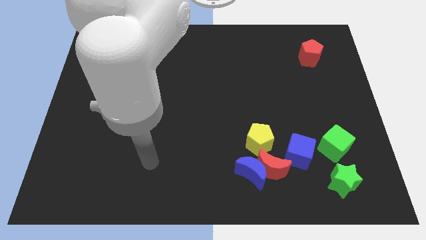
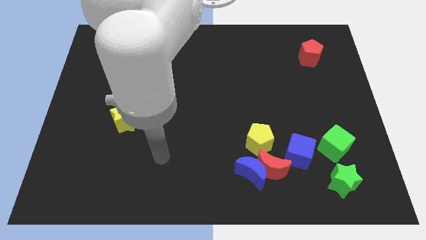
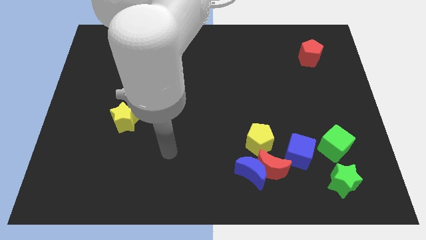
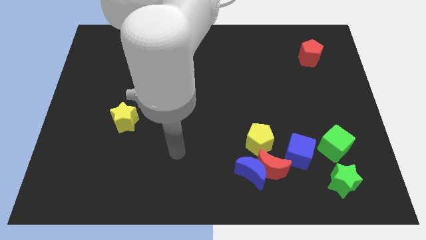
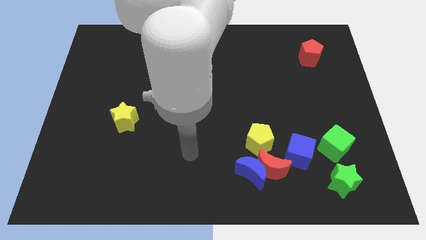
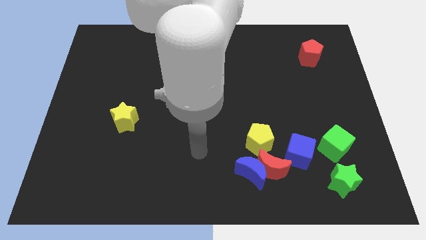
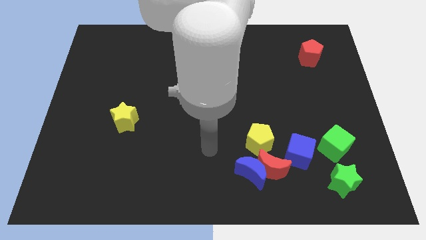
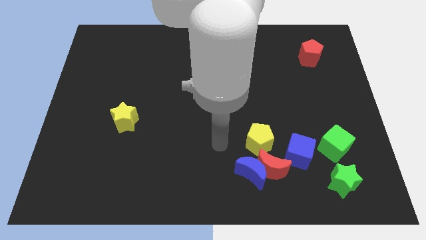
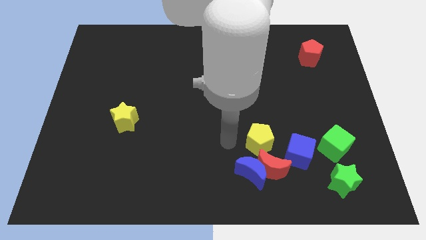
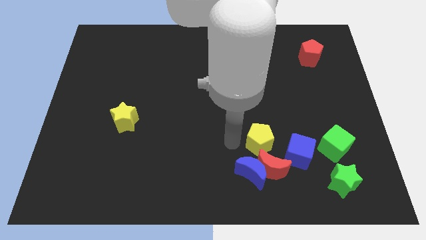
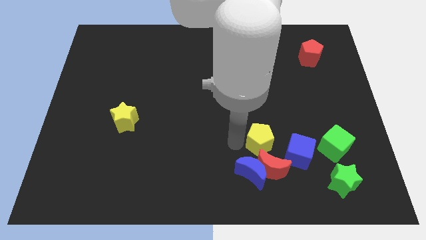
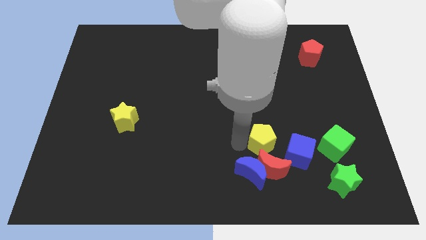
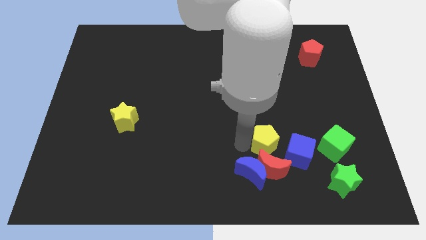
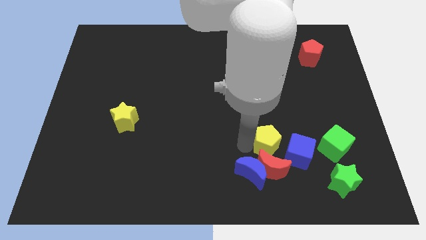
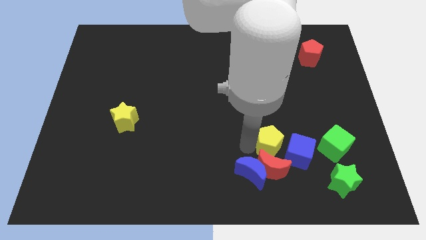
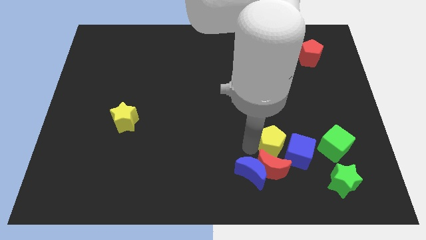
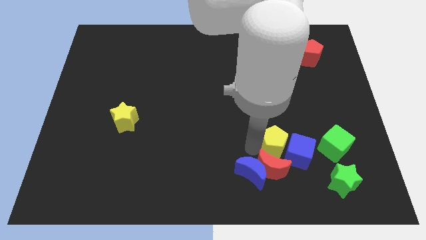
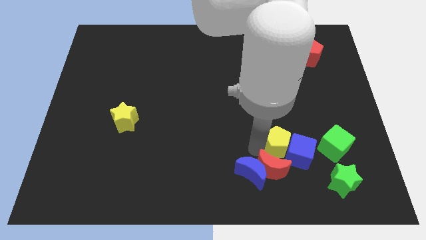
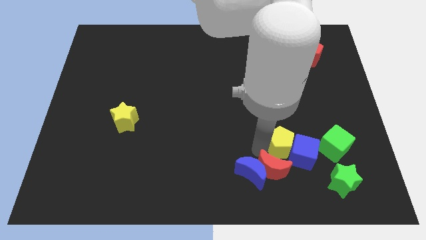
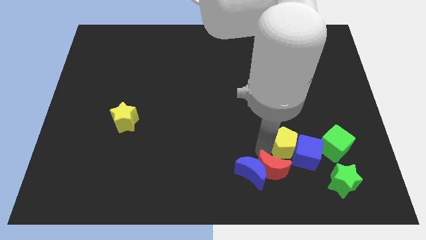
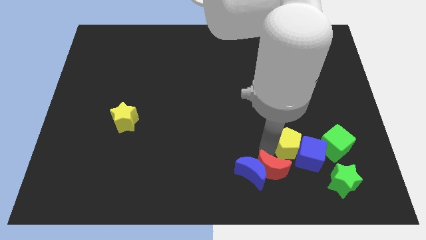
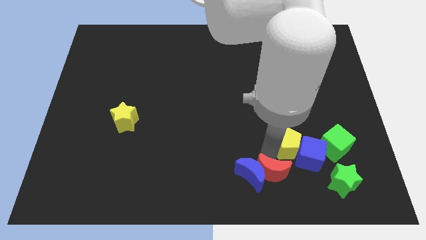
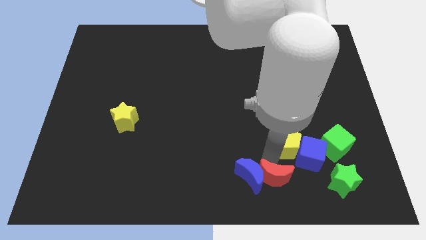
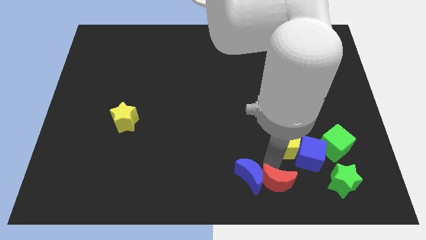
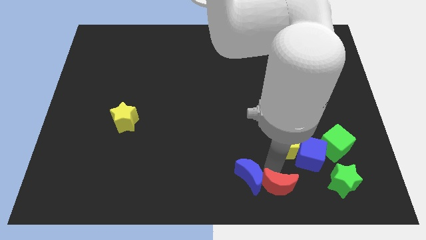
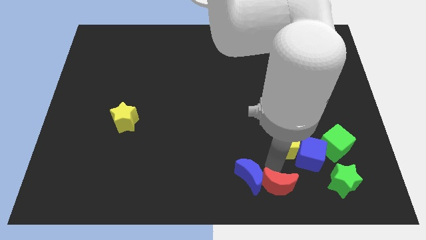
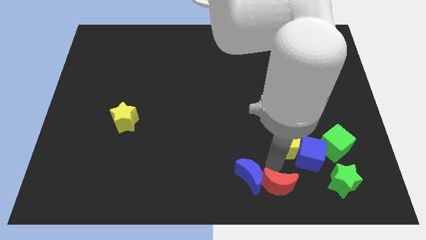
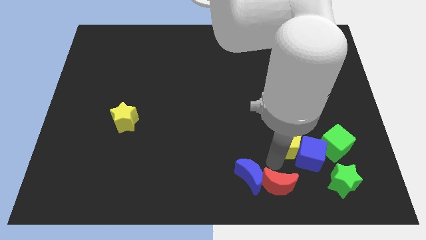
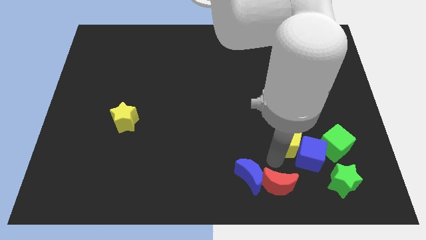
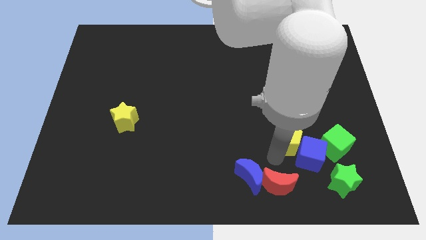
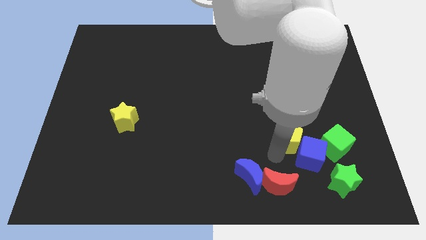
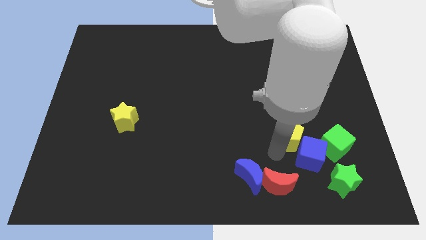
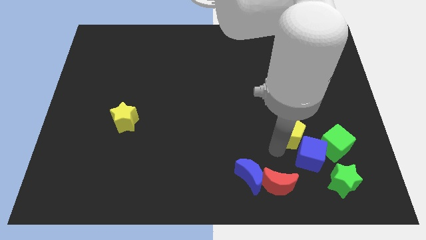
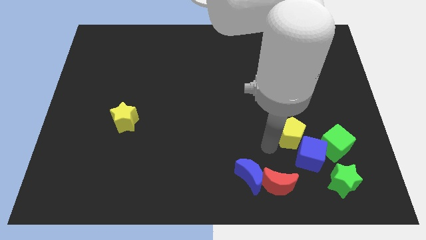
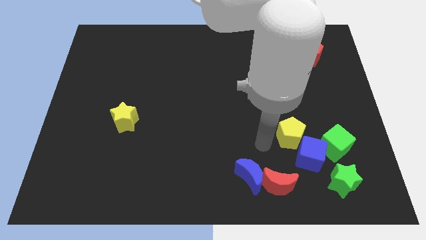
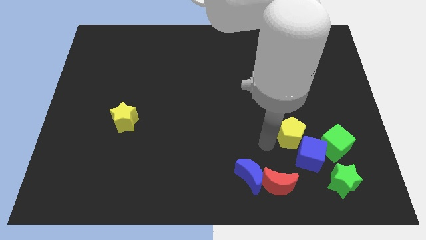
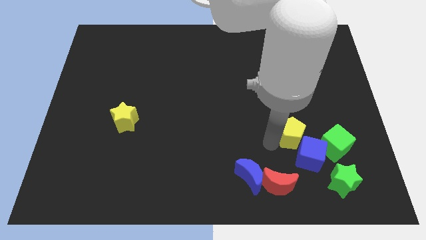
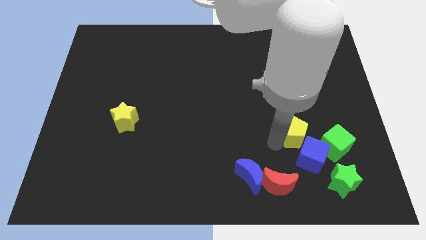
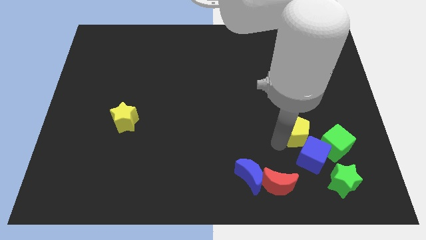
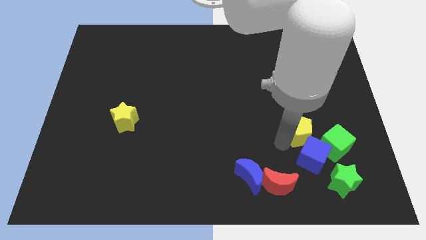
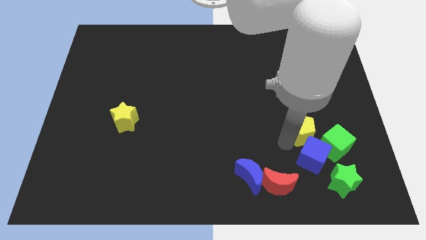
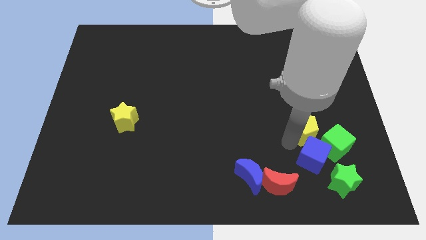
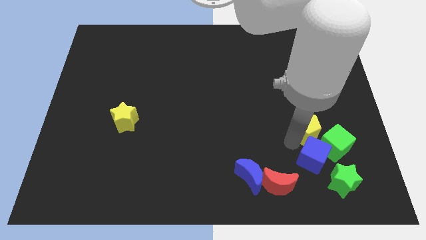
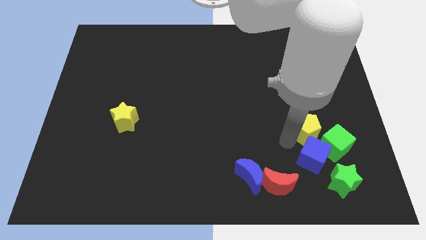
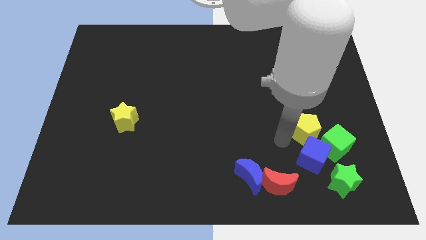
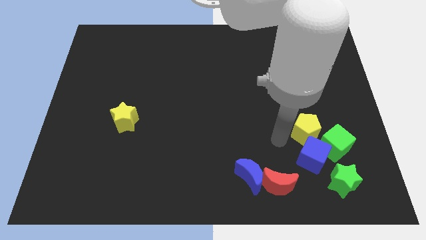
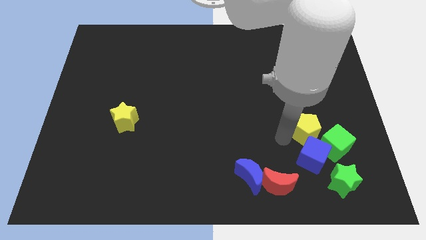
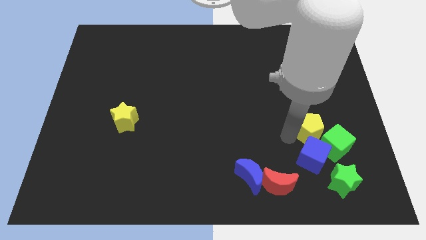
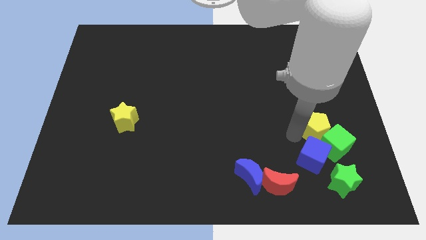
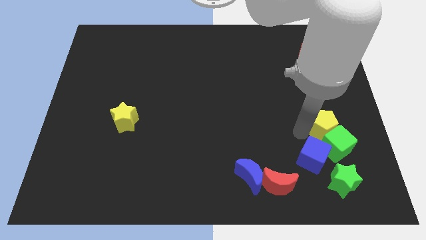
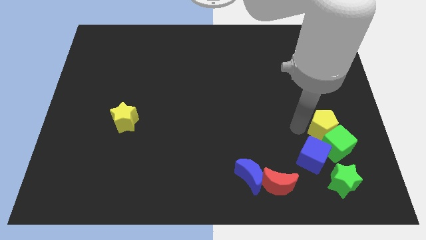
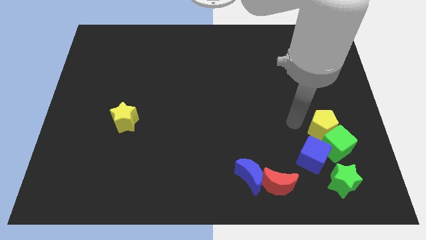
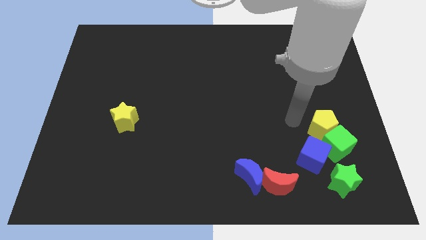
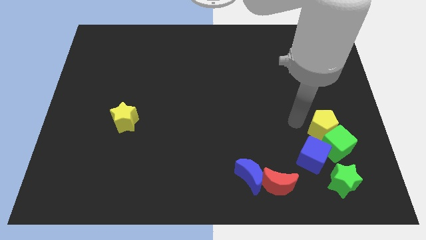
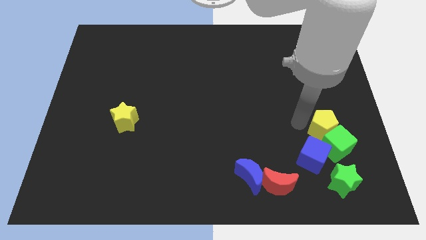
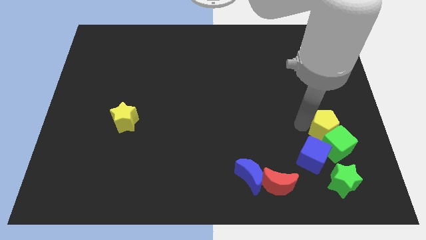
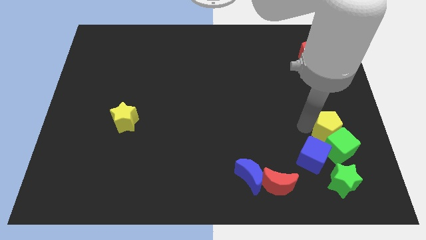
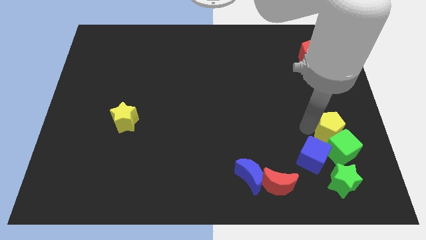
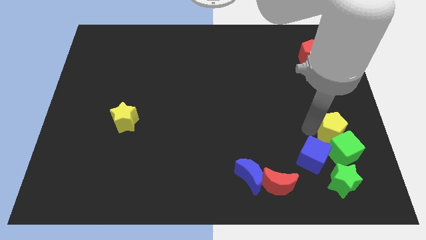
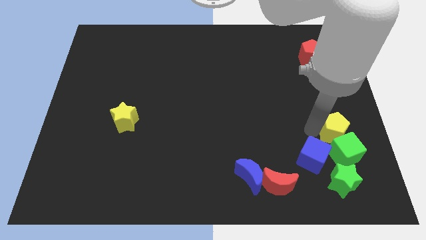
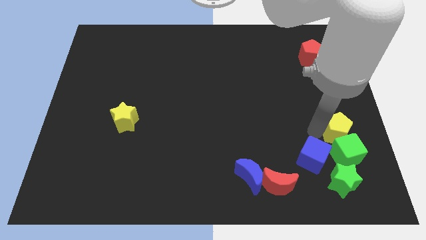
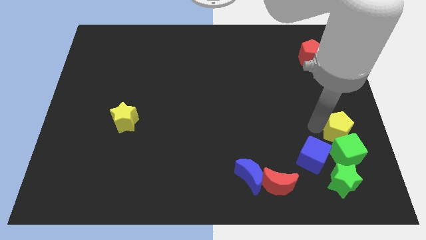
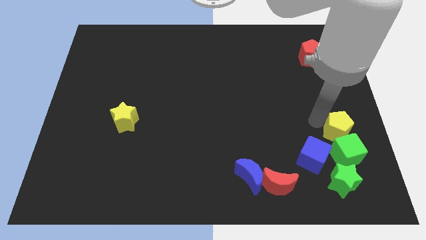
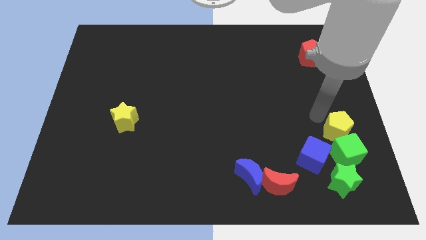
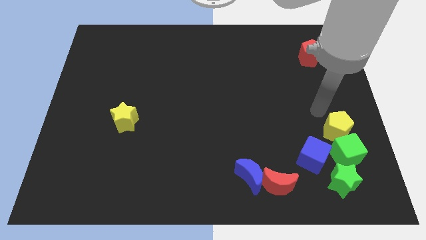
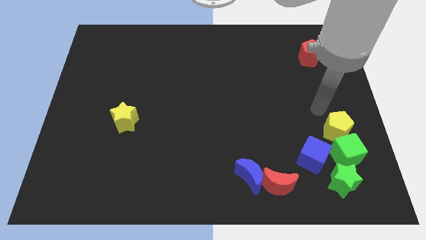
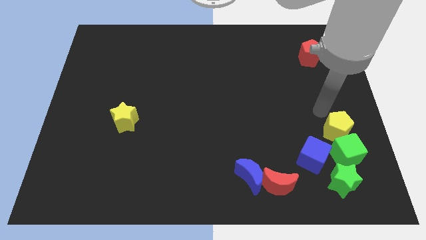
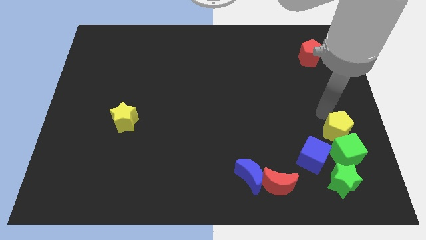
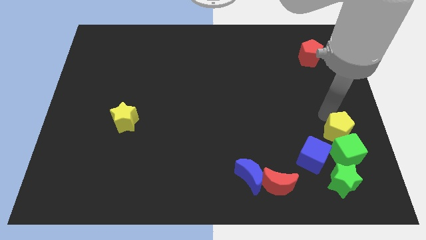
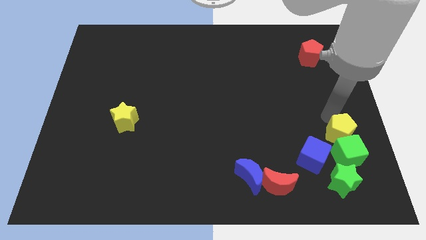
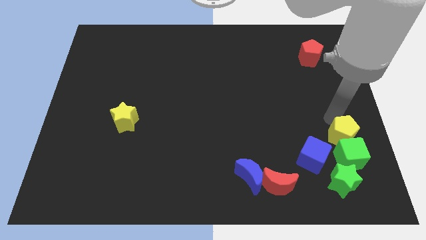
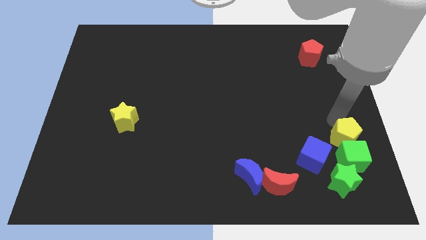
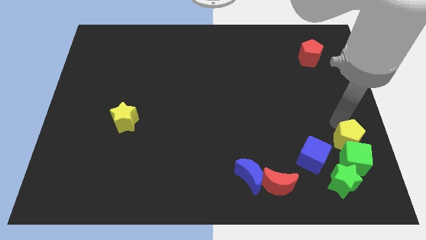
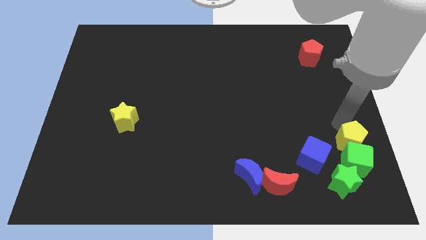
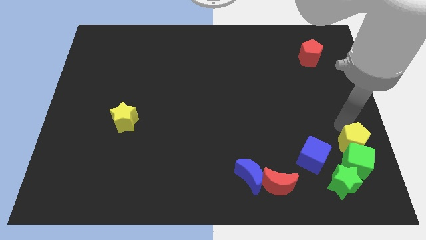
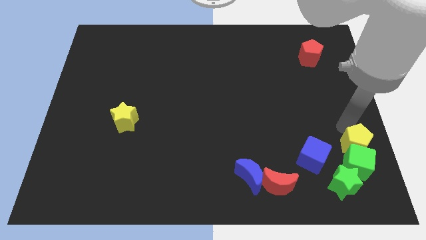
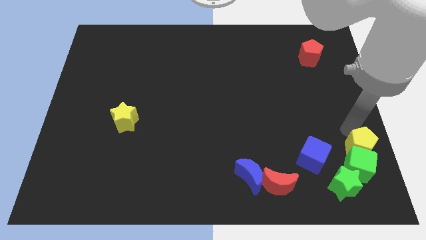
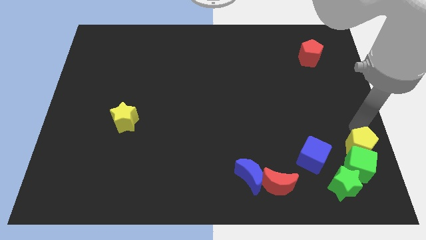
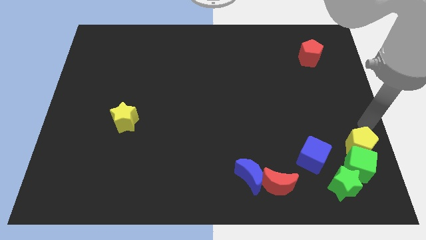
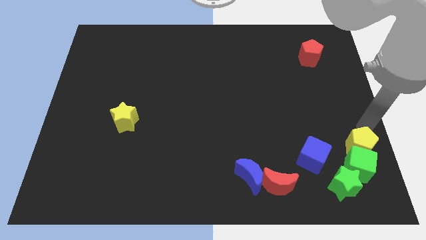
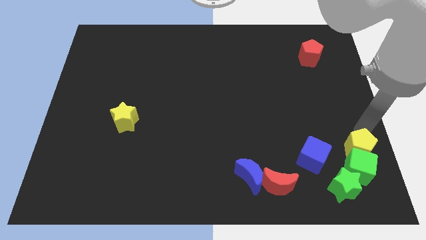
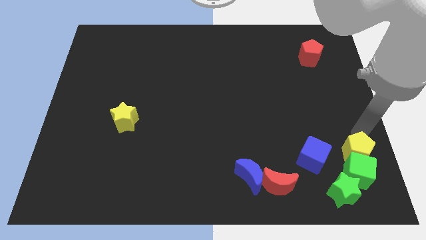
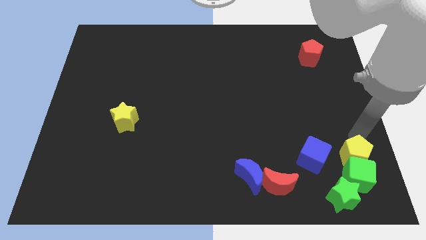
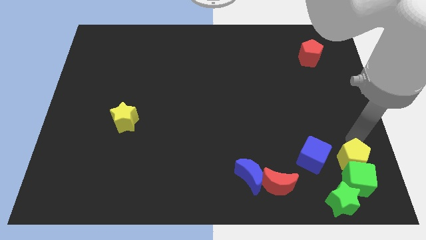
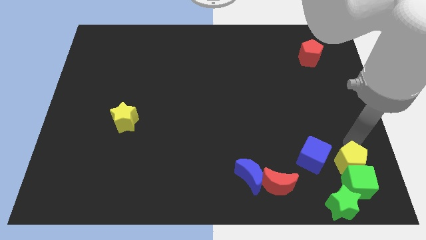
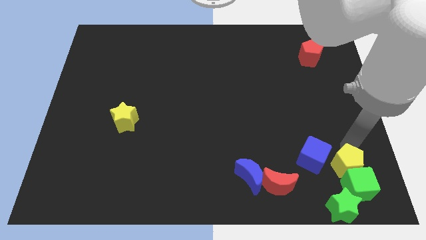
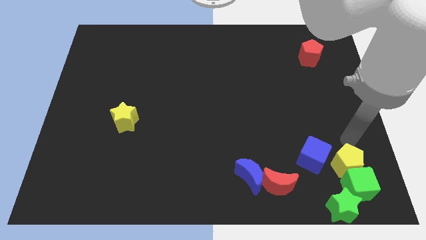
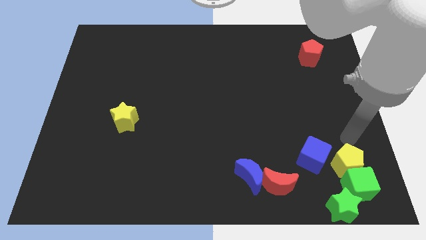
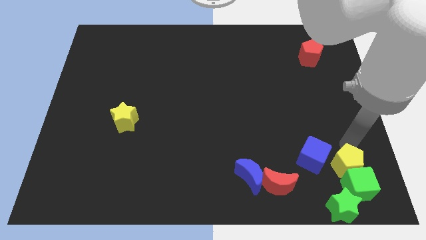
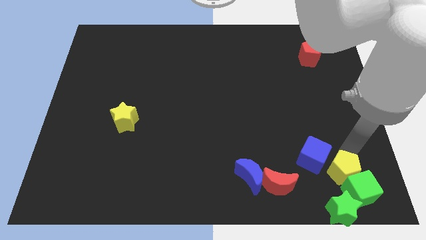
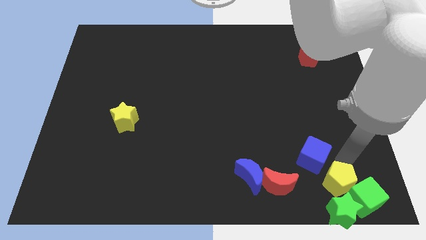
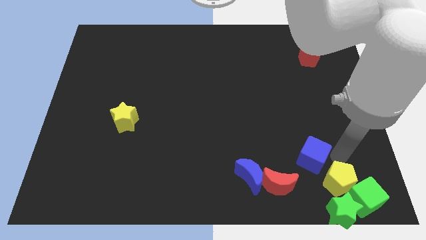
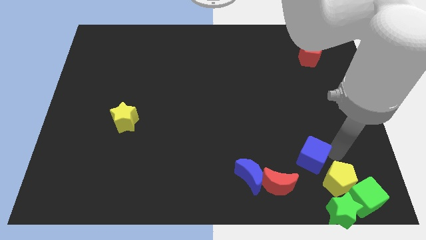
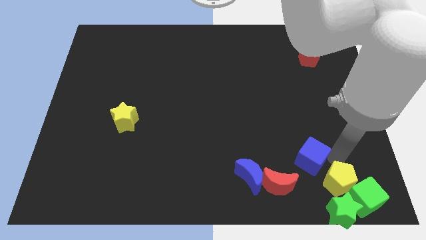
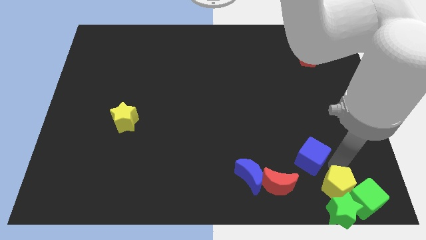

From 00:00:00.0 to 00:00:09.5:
move the yellow pentagon next to the green star
